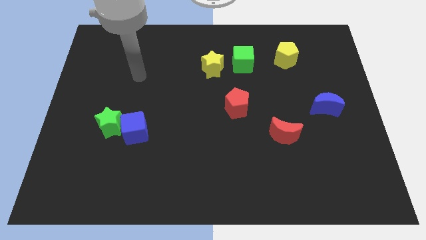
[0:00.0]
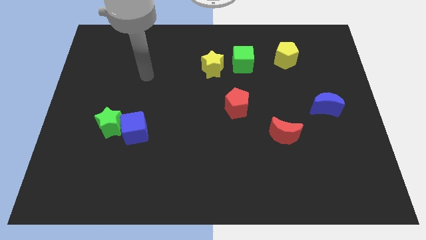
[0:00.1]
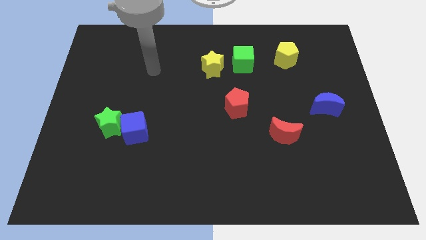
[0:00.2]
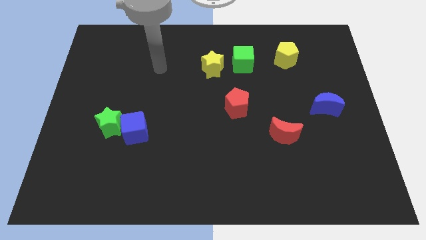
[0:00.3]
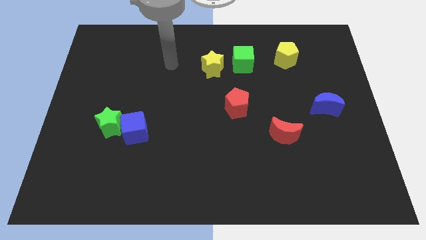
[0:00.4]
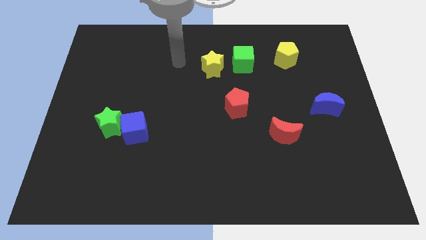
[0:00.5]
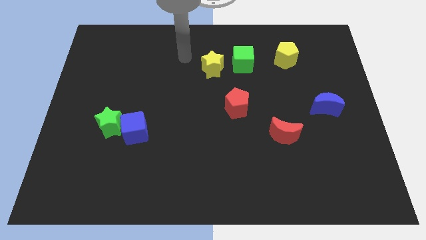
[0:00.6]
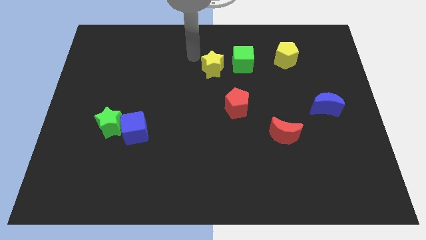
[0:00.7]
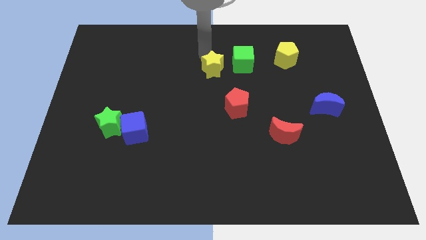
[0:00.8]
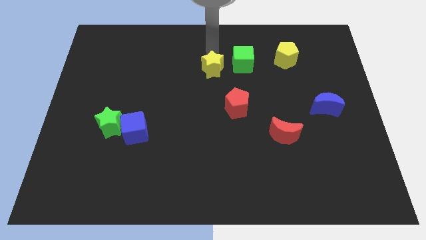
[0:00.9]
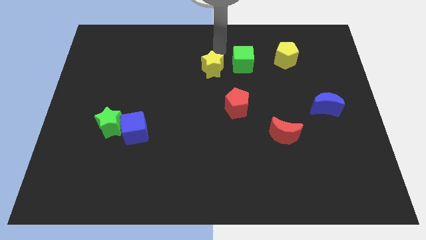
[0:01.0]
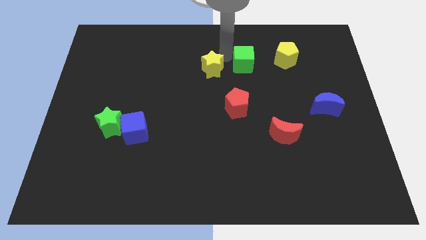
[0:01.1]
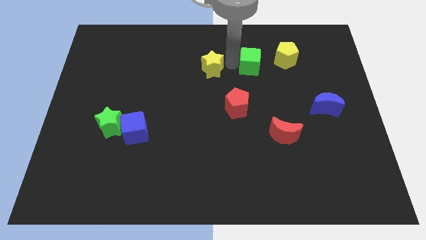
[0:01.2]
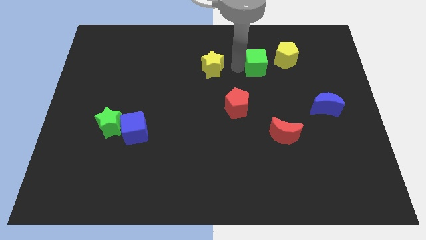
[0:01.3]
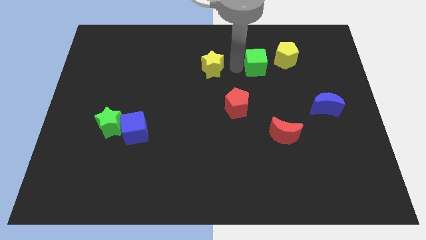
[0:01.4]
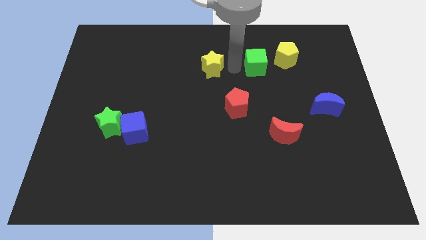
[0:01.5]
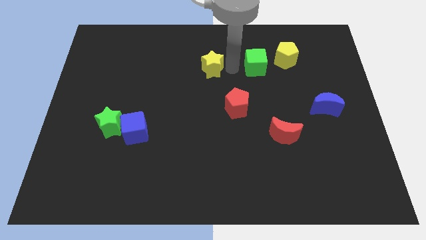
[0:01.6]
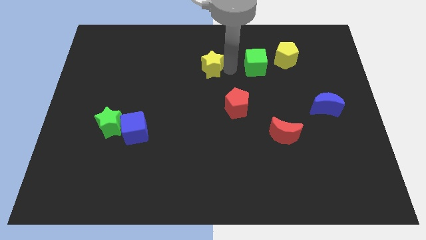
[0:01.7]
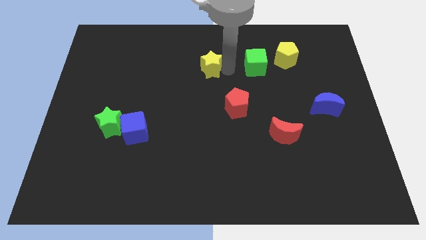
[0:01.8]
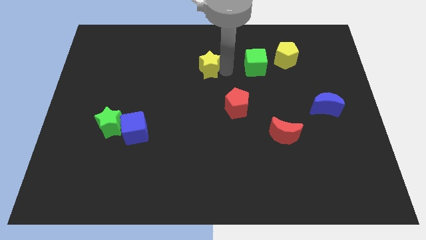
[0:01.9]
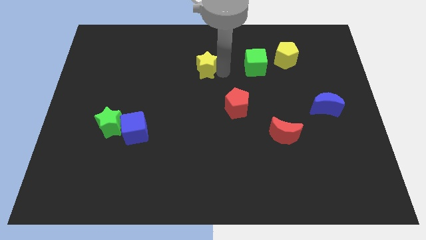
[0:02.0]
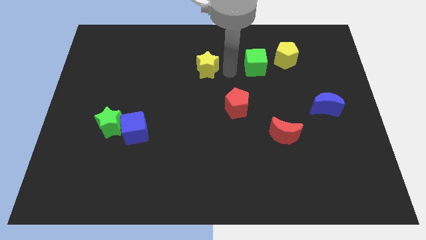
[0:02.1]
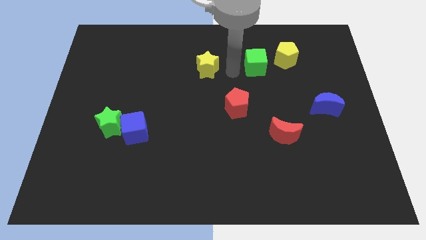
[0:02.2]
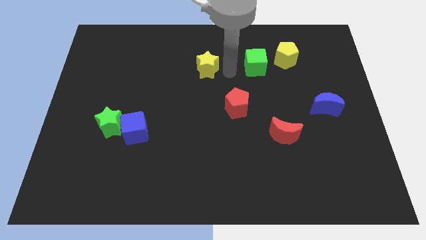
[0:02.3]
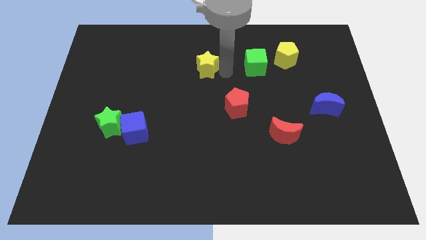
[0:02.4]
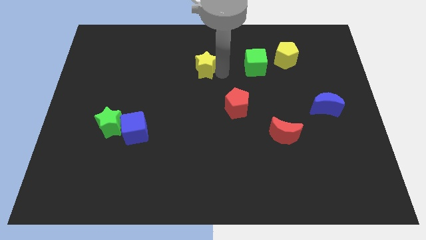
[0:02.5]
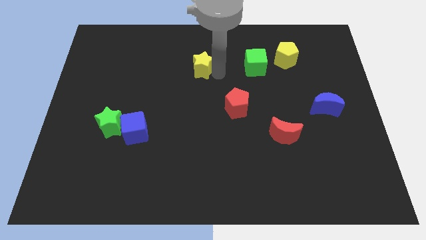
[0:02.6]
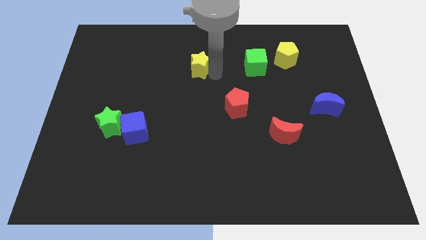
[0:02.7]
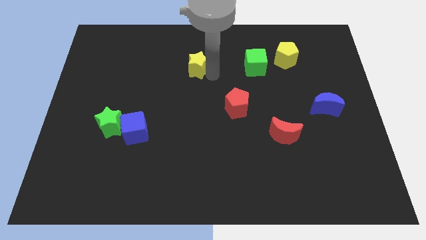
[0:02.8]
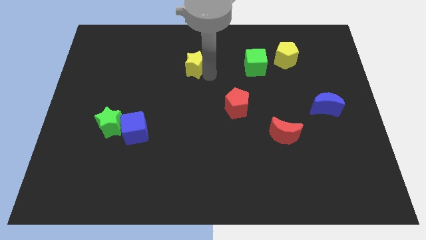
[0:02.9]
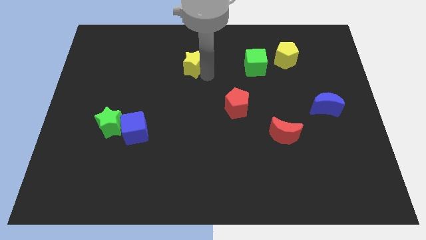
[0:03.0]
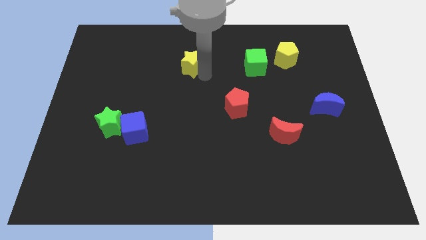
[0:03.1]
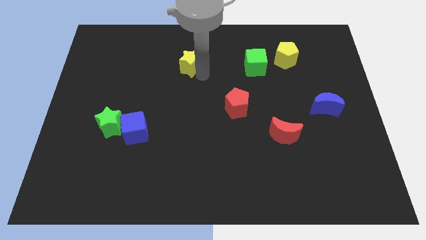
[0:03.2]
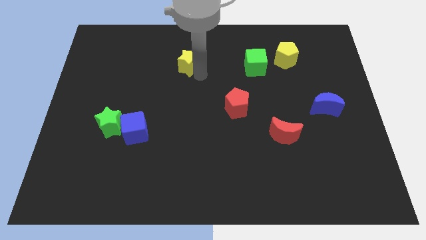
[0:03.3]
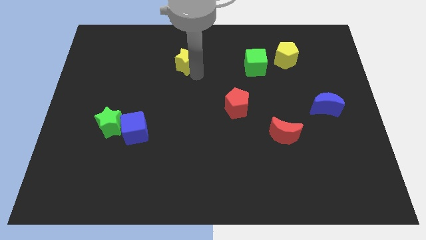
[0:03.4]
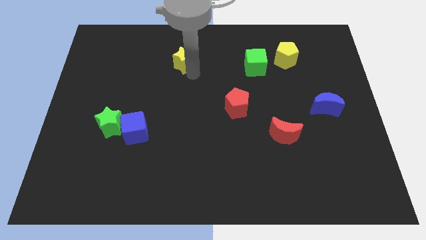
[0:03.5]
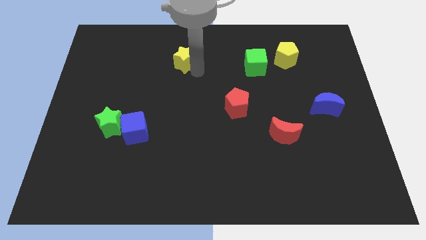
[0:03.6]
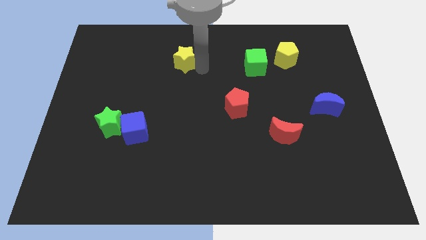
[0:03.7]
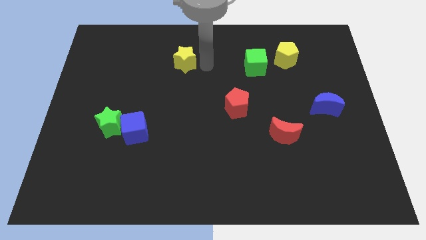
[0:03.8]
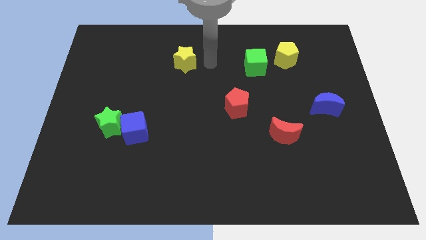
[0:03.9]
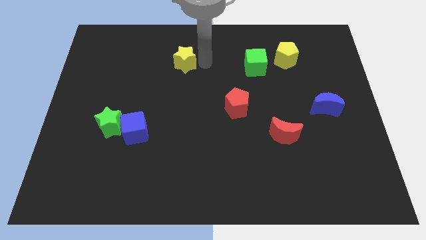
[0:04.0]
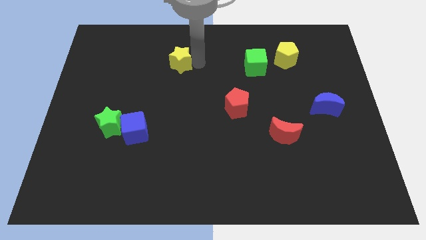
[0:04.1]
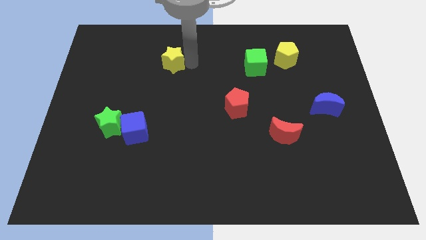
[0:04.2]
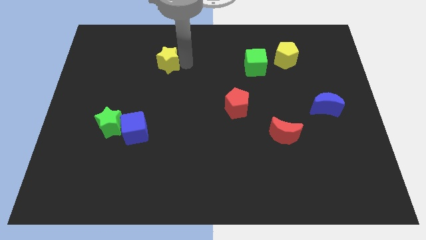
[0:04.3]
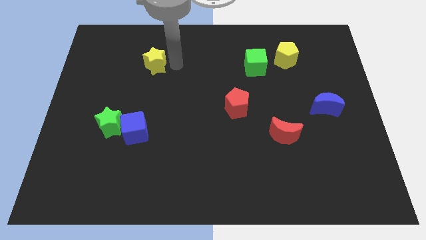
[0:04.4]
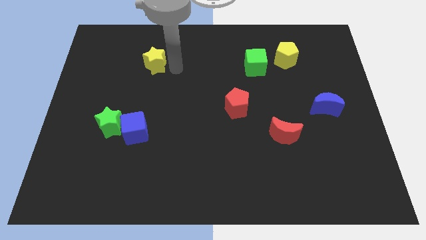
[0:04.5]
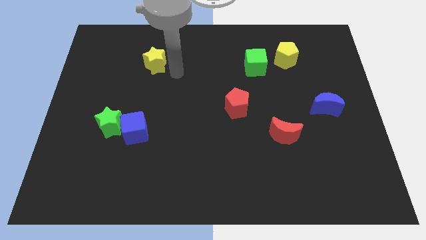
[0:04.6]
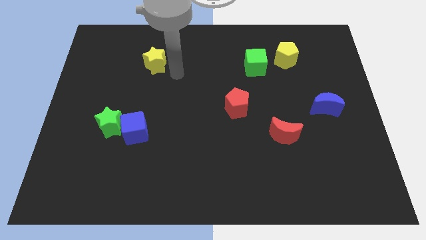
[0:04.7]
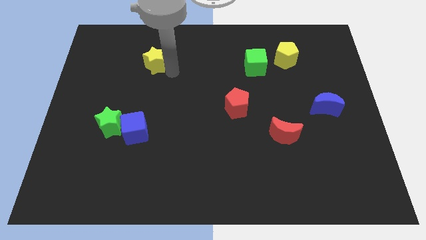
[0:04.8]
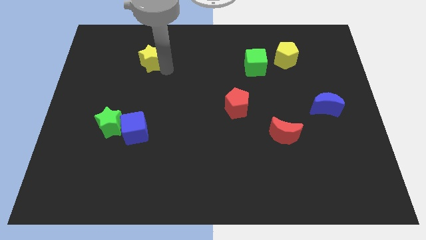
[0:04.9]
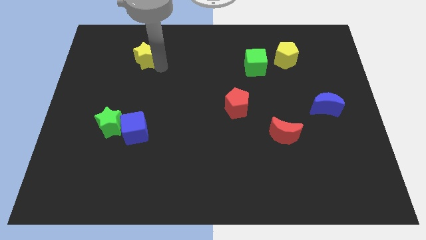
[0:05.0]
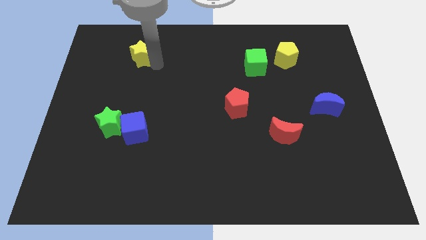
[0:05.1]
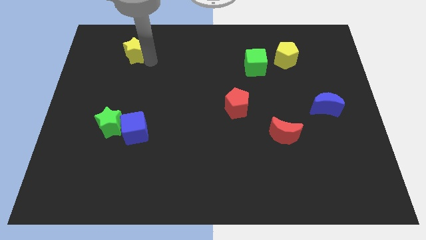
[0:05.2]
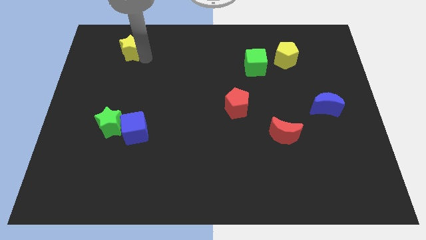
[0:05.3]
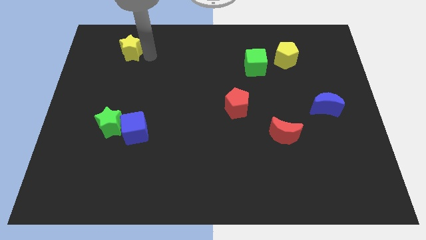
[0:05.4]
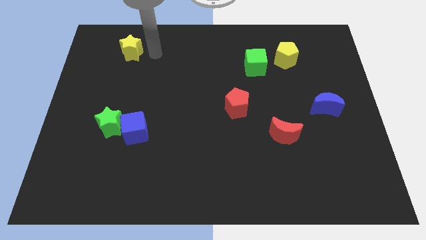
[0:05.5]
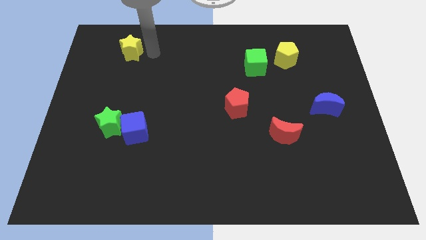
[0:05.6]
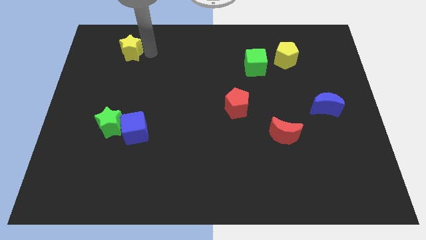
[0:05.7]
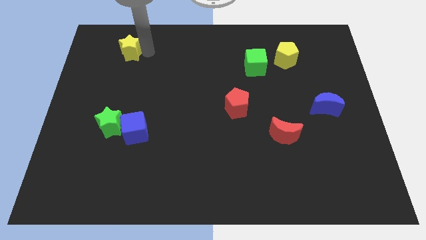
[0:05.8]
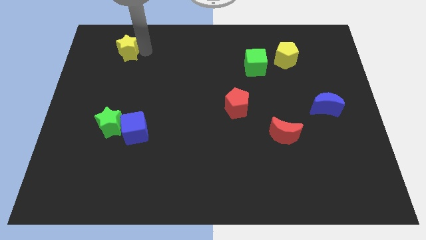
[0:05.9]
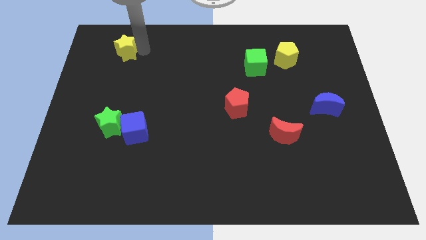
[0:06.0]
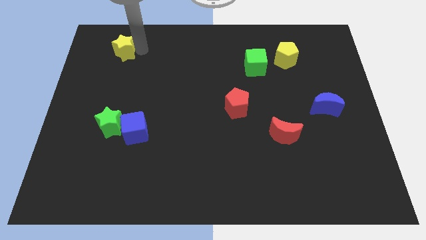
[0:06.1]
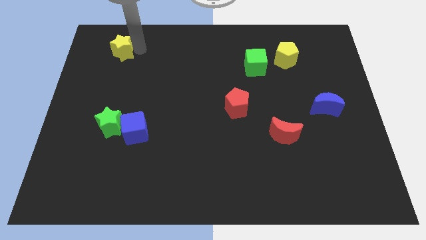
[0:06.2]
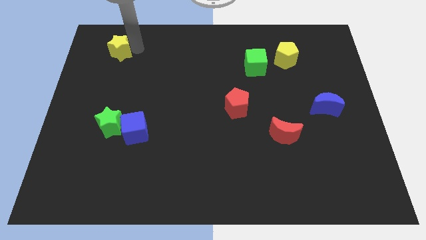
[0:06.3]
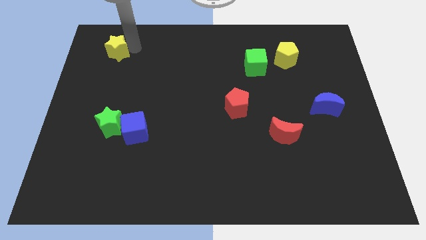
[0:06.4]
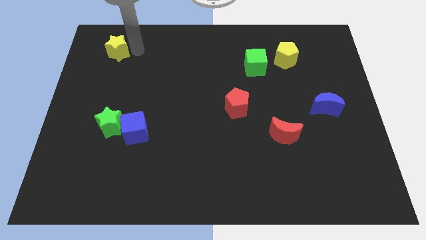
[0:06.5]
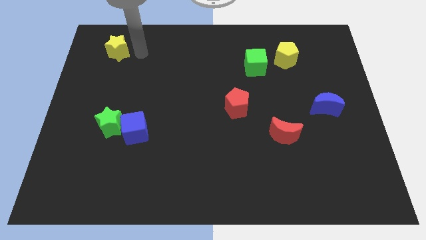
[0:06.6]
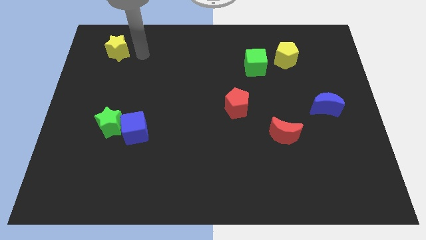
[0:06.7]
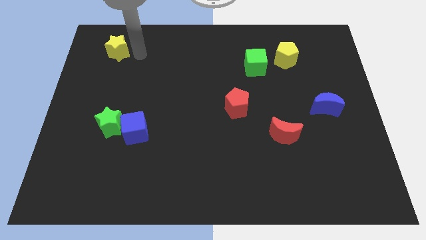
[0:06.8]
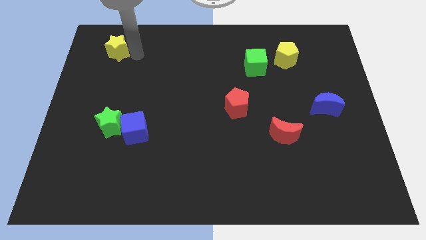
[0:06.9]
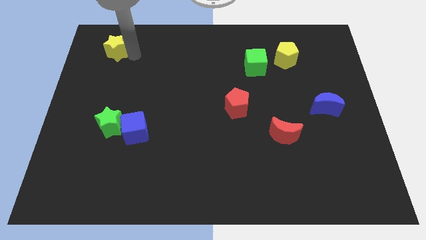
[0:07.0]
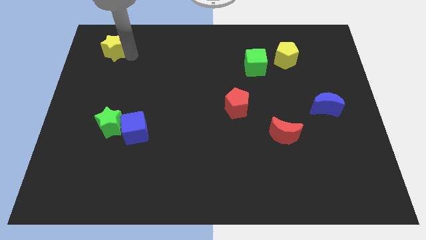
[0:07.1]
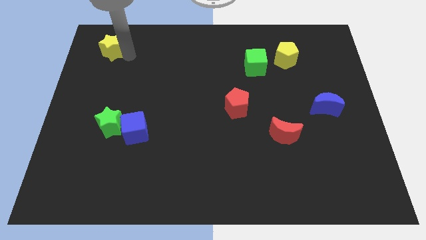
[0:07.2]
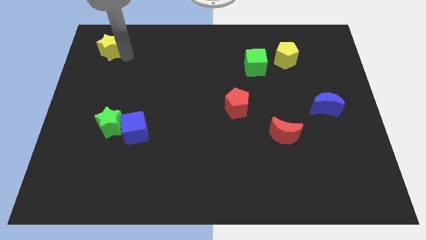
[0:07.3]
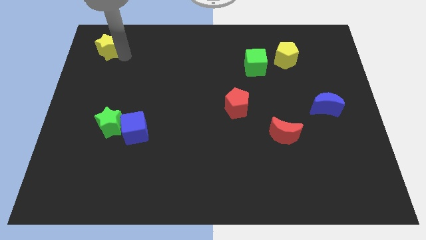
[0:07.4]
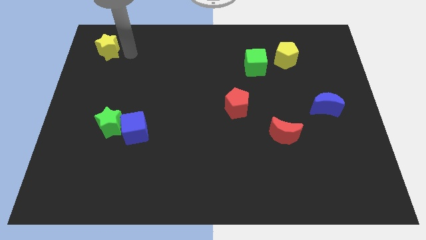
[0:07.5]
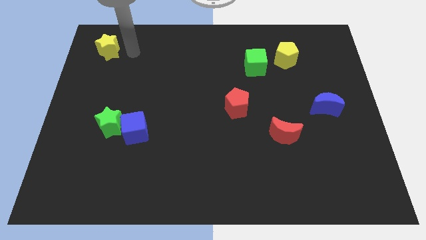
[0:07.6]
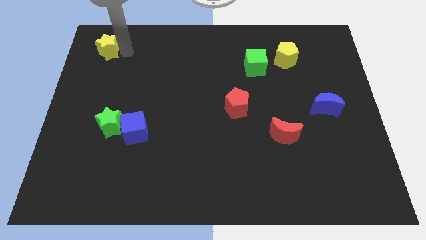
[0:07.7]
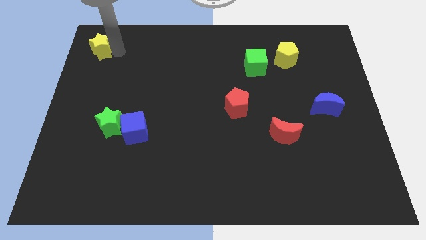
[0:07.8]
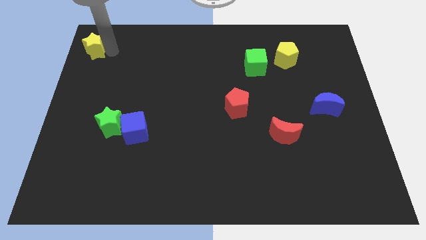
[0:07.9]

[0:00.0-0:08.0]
move the yellow star to the top left of the board
